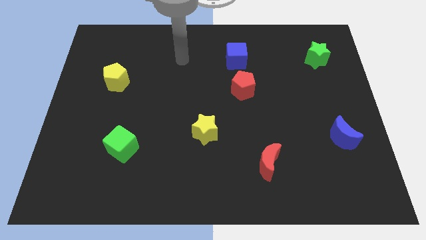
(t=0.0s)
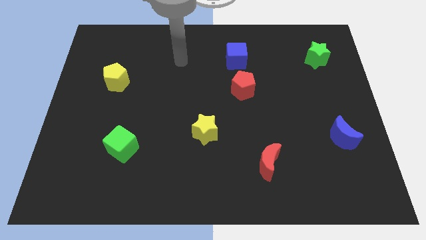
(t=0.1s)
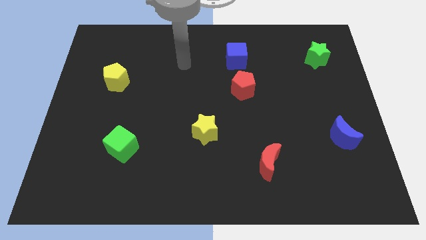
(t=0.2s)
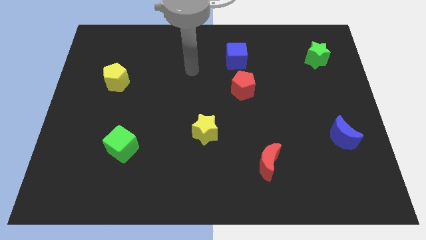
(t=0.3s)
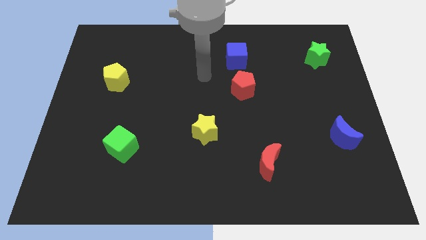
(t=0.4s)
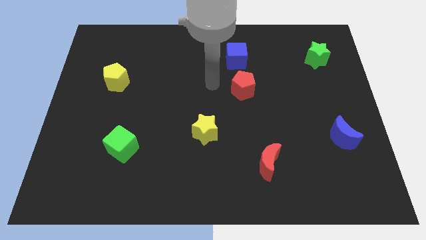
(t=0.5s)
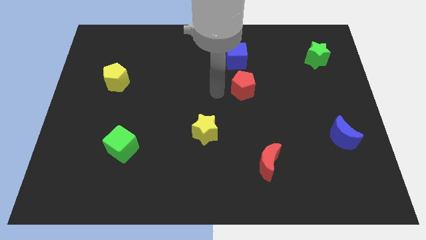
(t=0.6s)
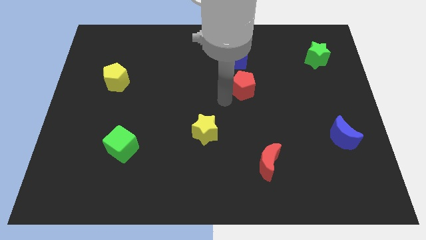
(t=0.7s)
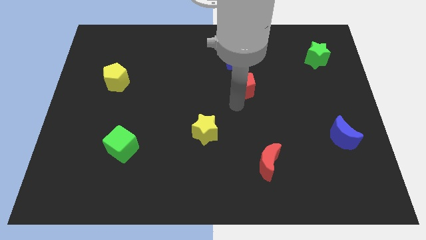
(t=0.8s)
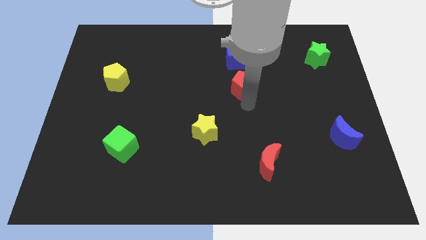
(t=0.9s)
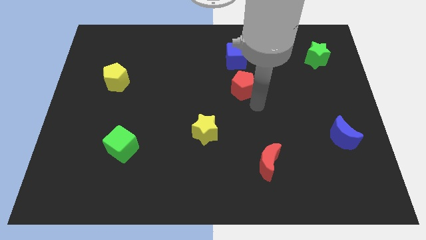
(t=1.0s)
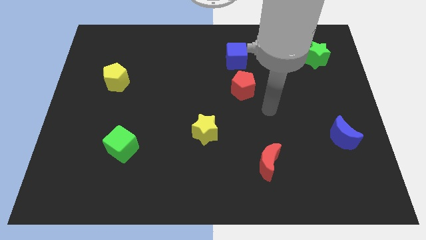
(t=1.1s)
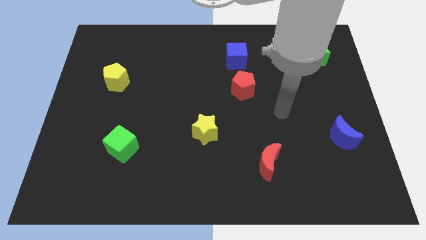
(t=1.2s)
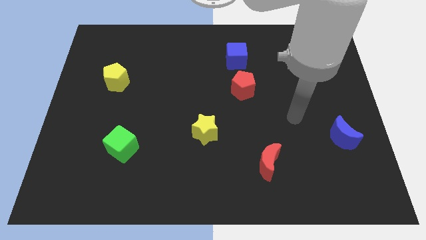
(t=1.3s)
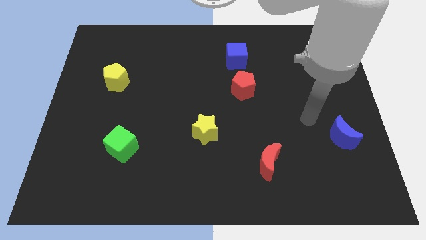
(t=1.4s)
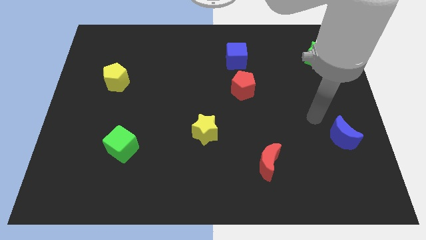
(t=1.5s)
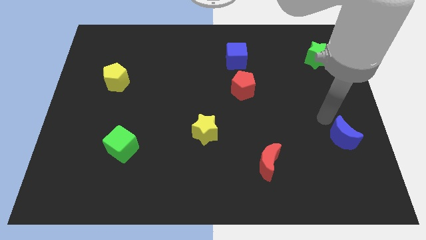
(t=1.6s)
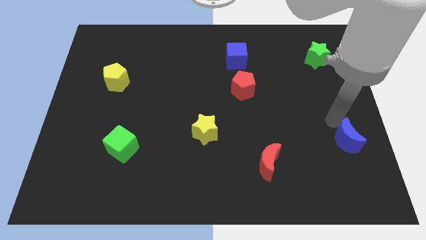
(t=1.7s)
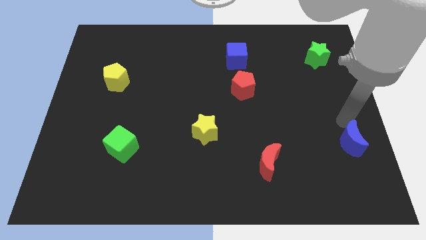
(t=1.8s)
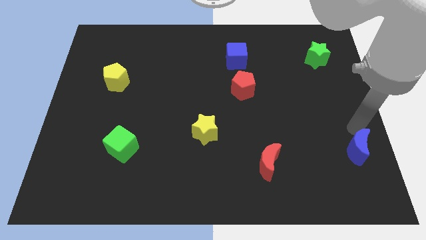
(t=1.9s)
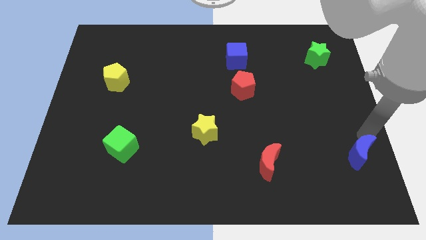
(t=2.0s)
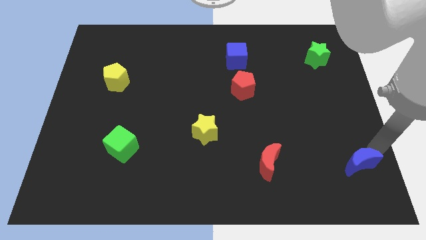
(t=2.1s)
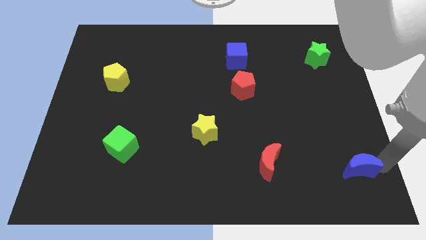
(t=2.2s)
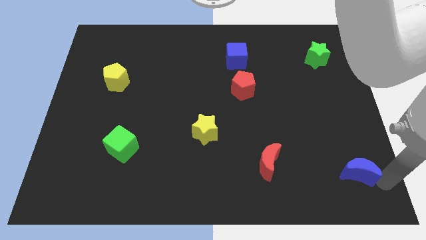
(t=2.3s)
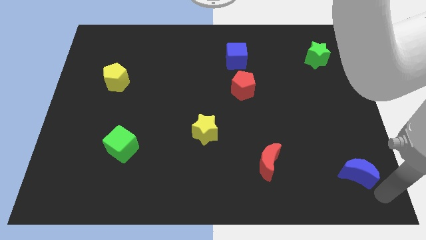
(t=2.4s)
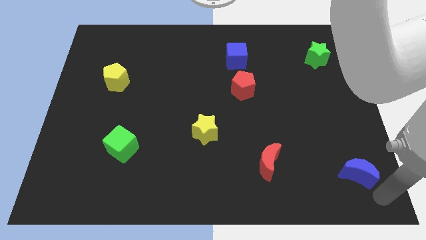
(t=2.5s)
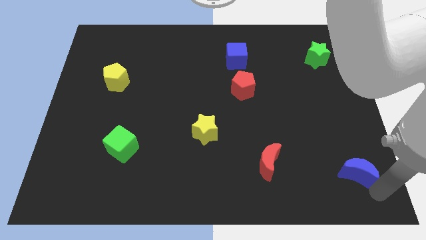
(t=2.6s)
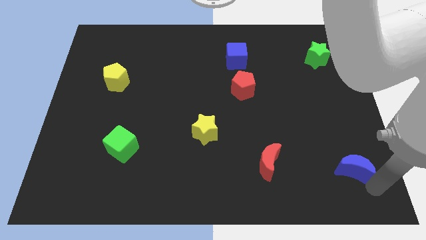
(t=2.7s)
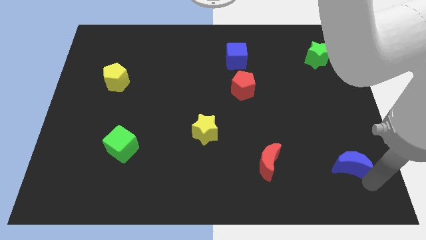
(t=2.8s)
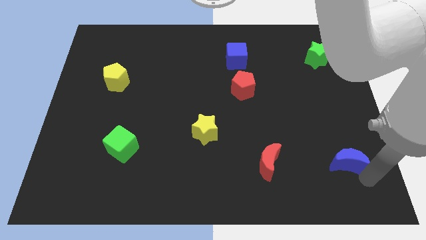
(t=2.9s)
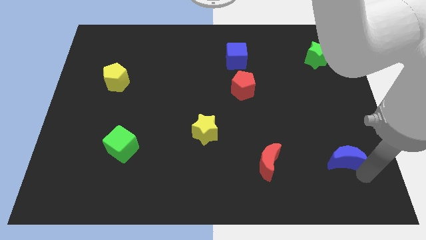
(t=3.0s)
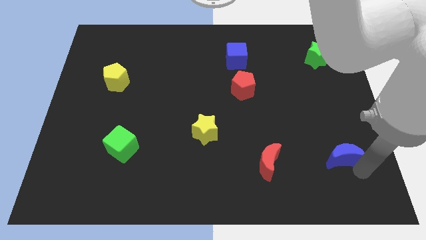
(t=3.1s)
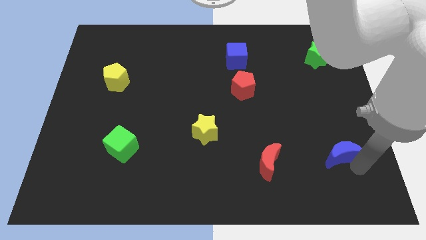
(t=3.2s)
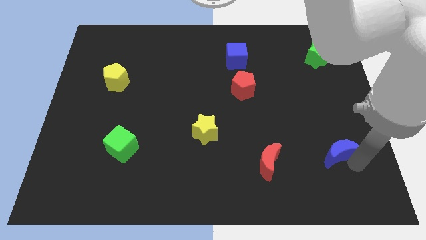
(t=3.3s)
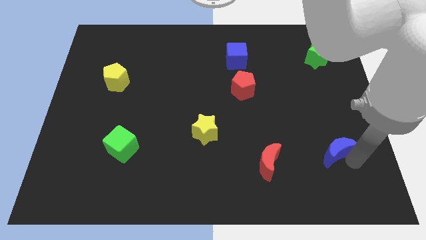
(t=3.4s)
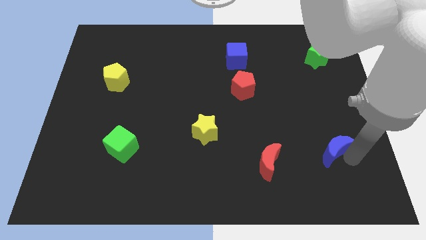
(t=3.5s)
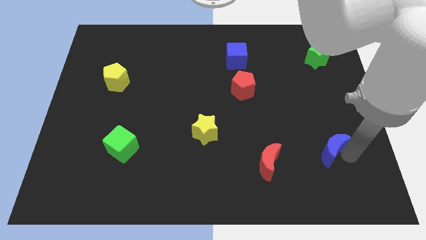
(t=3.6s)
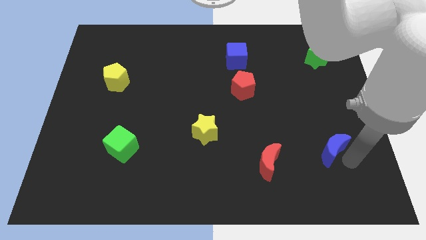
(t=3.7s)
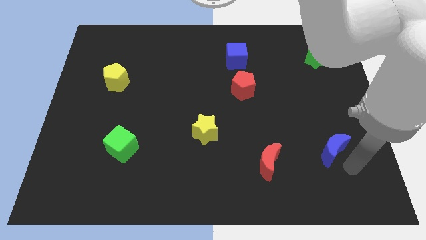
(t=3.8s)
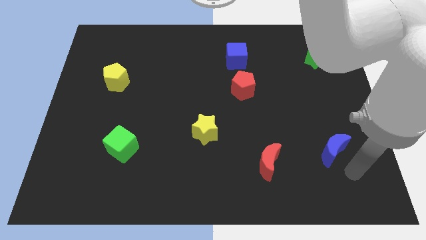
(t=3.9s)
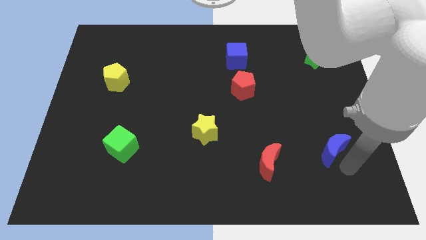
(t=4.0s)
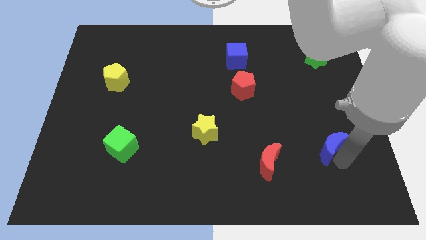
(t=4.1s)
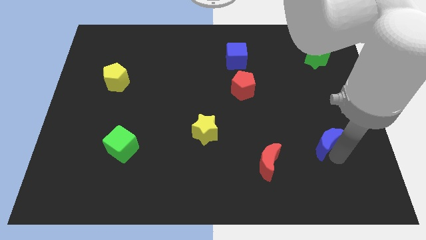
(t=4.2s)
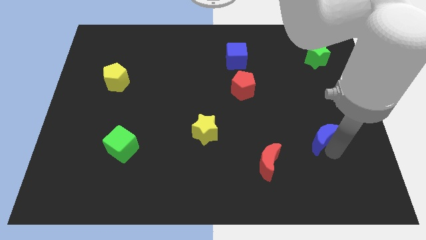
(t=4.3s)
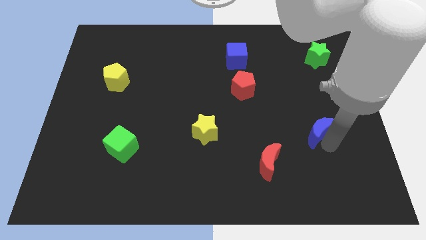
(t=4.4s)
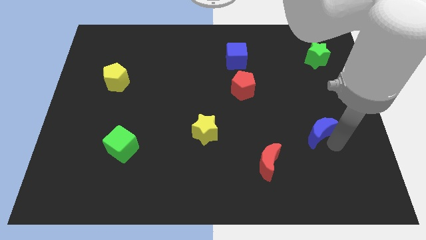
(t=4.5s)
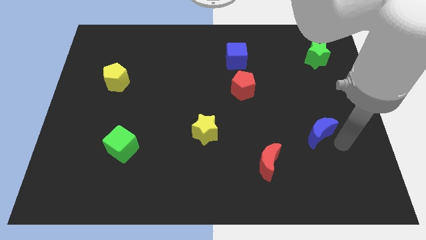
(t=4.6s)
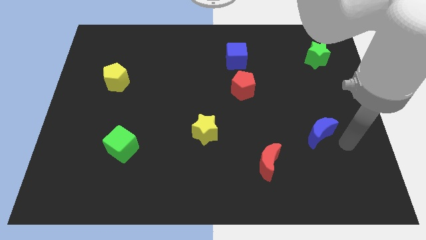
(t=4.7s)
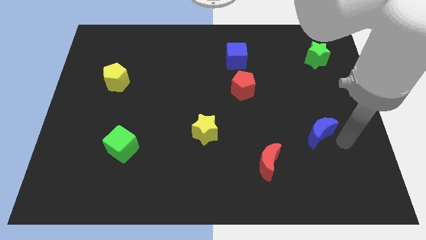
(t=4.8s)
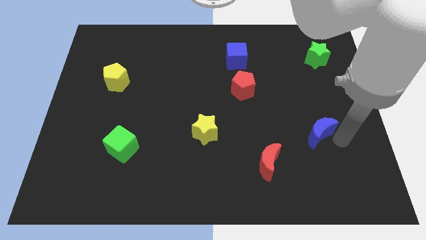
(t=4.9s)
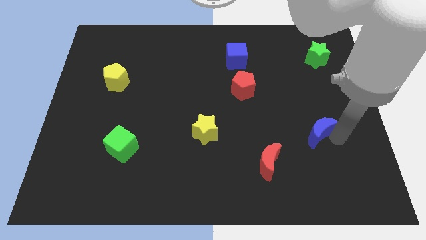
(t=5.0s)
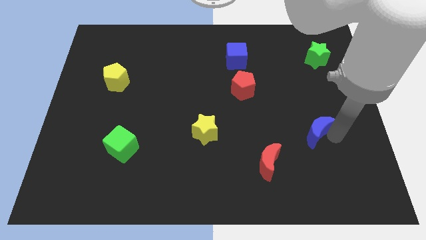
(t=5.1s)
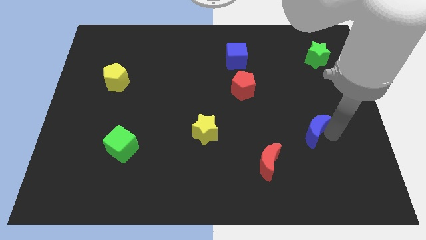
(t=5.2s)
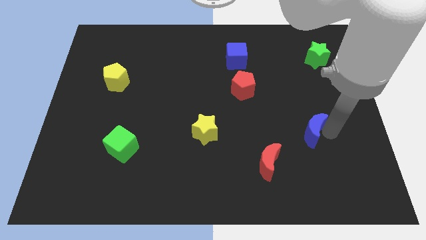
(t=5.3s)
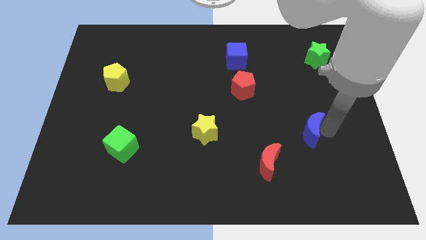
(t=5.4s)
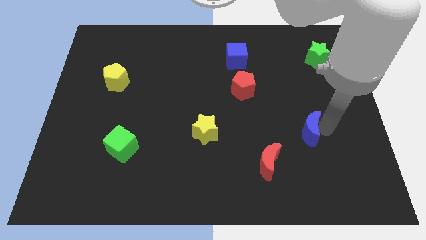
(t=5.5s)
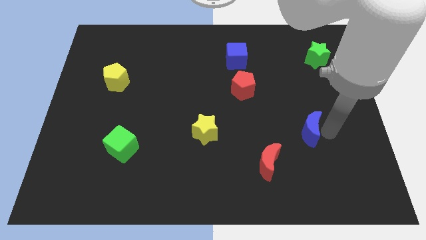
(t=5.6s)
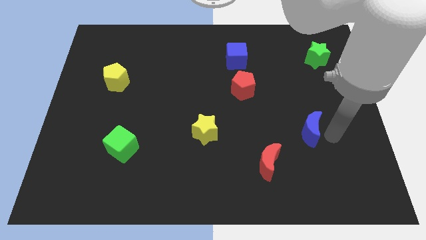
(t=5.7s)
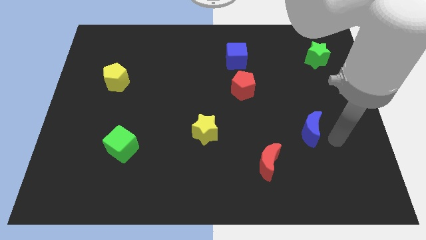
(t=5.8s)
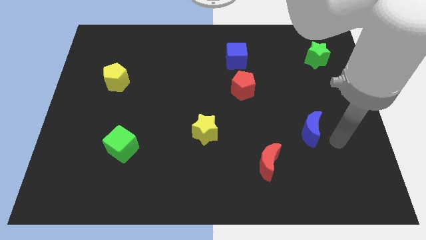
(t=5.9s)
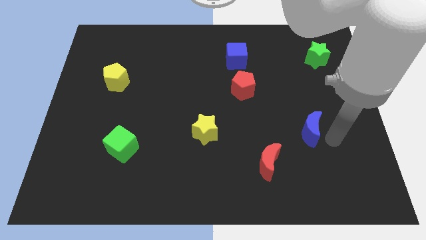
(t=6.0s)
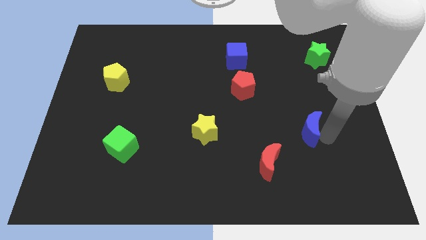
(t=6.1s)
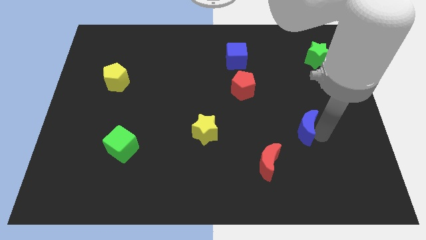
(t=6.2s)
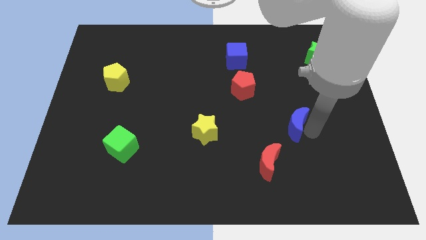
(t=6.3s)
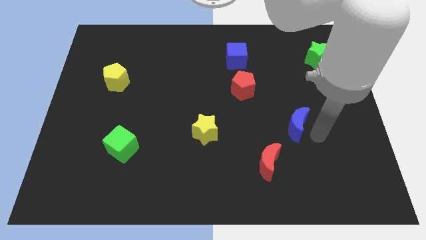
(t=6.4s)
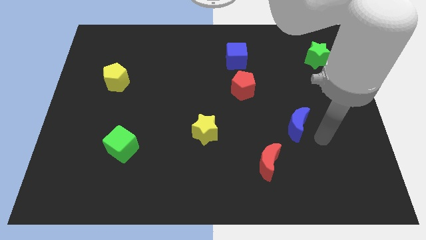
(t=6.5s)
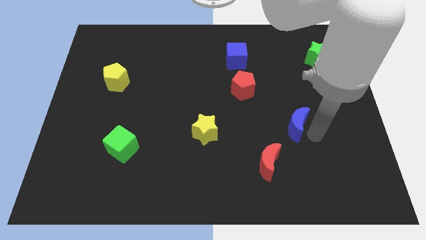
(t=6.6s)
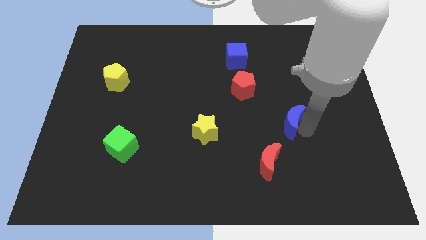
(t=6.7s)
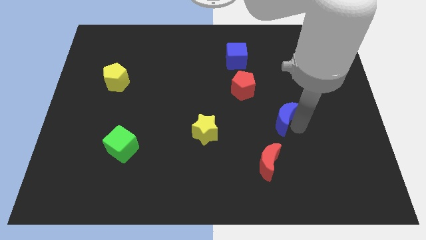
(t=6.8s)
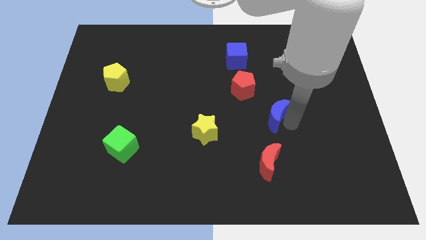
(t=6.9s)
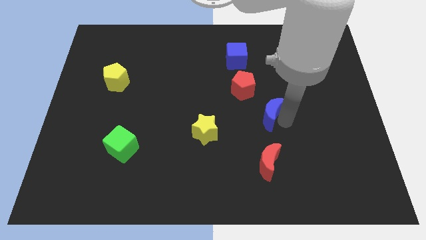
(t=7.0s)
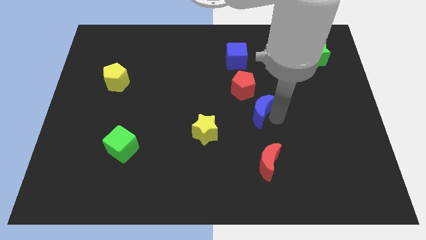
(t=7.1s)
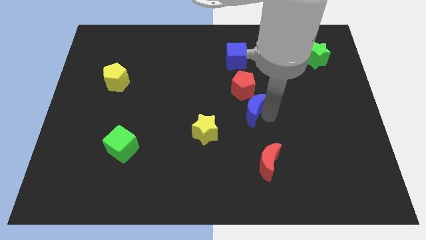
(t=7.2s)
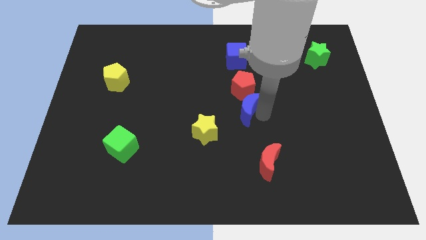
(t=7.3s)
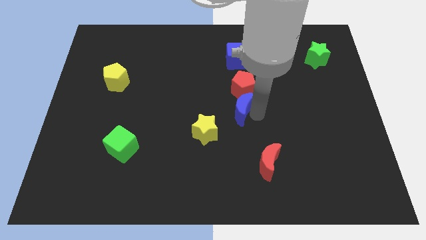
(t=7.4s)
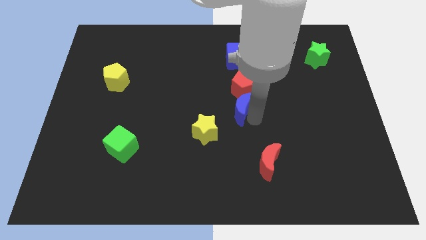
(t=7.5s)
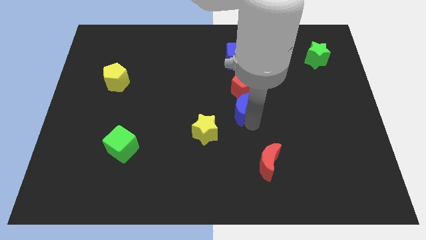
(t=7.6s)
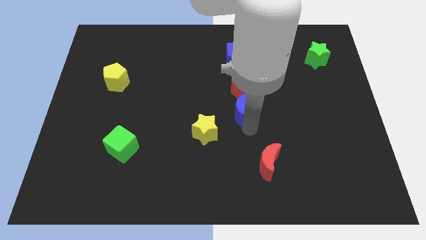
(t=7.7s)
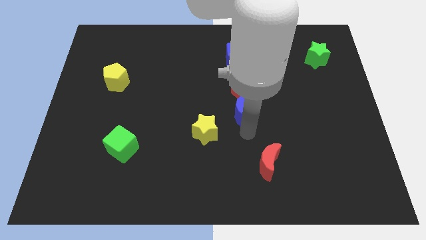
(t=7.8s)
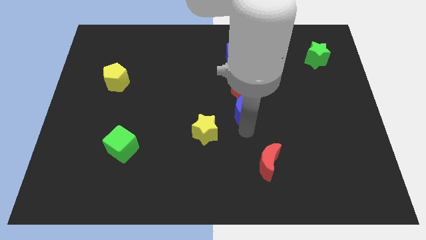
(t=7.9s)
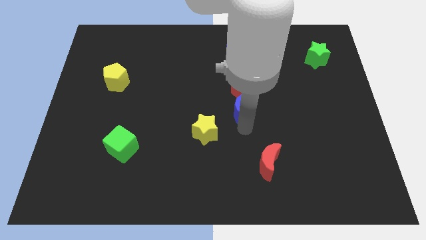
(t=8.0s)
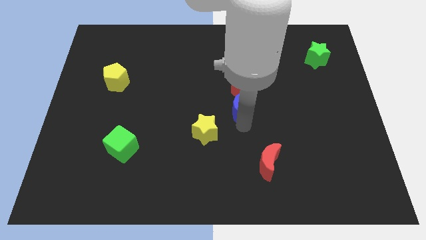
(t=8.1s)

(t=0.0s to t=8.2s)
push the blue moon to the bottom of the blue cube

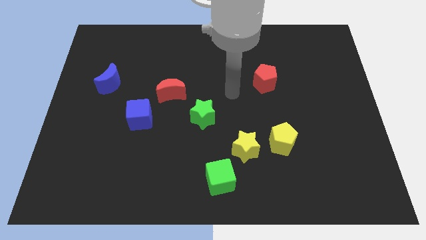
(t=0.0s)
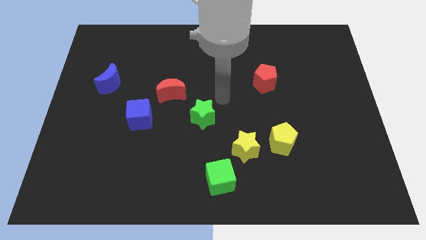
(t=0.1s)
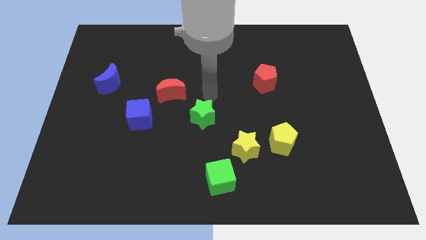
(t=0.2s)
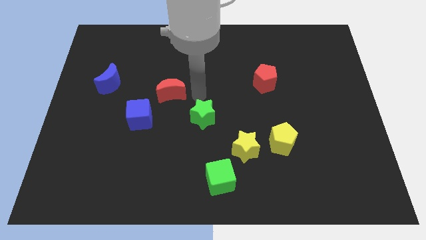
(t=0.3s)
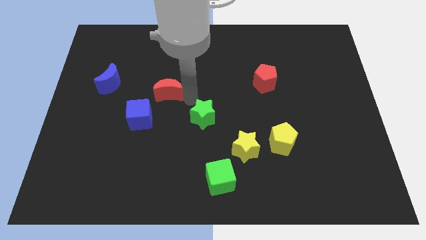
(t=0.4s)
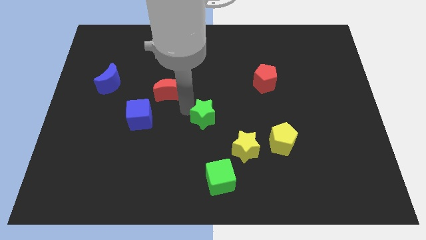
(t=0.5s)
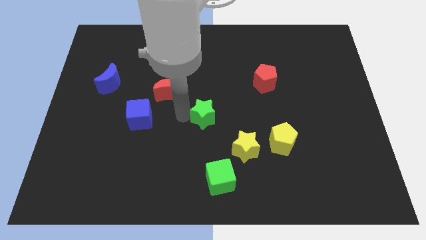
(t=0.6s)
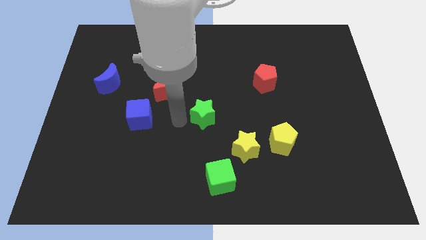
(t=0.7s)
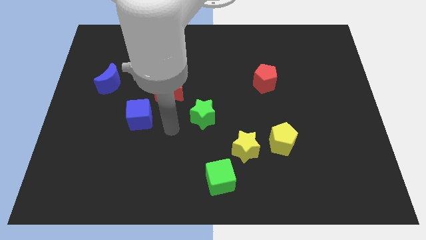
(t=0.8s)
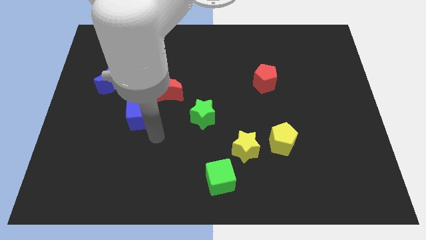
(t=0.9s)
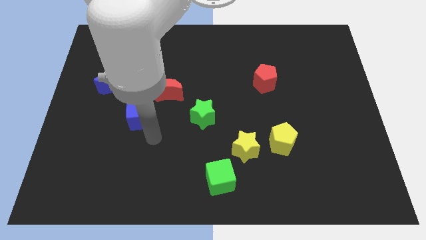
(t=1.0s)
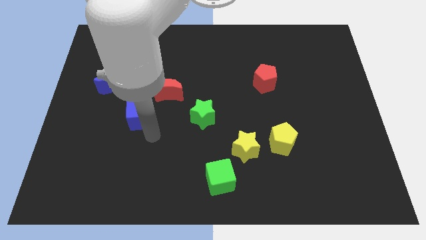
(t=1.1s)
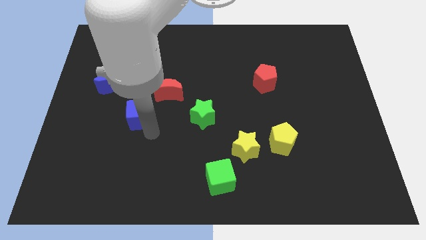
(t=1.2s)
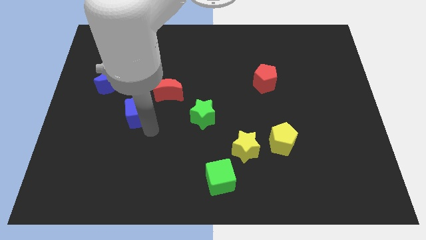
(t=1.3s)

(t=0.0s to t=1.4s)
slide the blue cube to the bottom right of the blue moon
